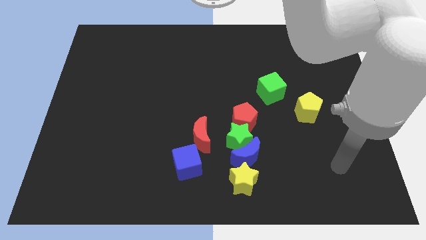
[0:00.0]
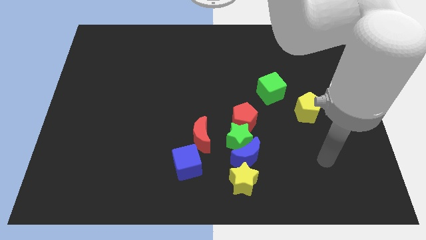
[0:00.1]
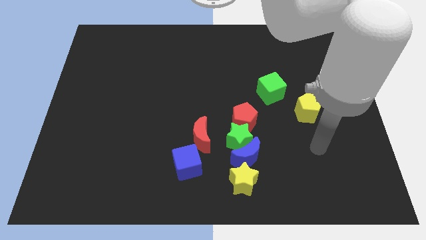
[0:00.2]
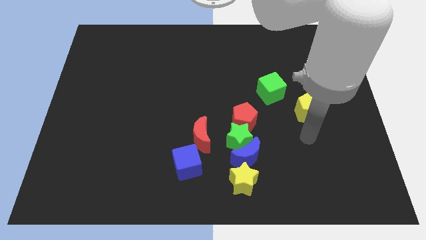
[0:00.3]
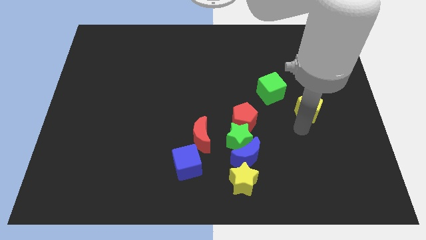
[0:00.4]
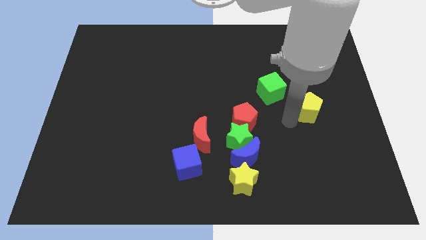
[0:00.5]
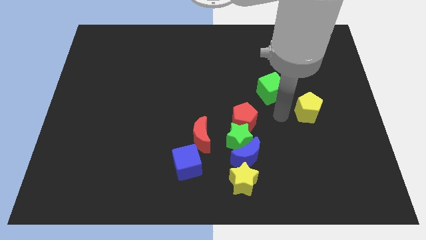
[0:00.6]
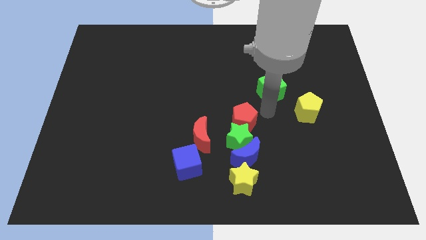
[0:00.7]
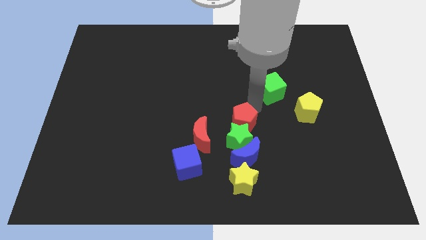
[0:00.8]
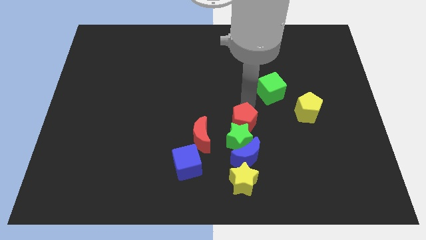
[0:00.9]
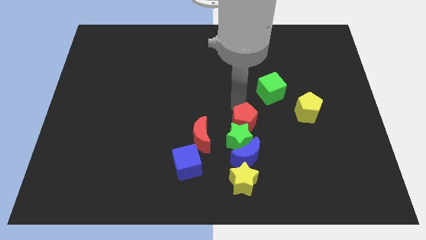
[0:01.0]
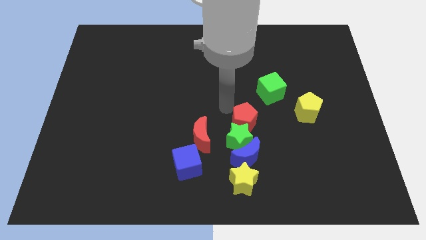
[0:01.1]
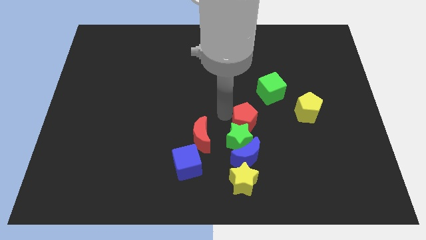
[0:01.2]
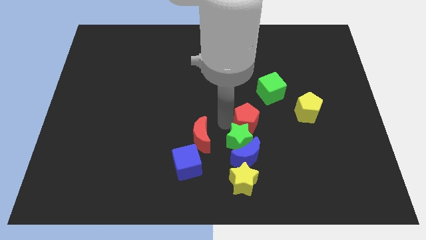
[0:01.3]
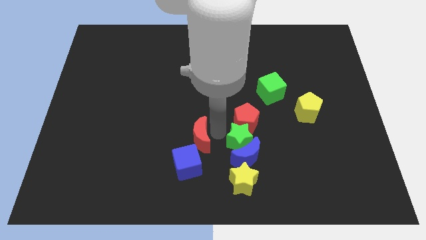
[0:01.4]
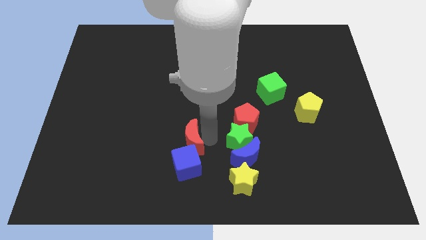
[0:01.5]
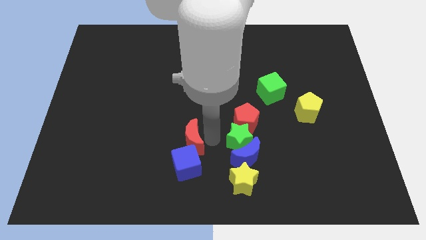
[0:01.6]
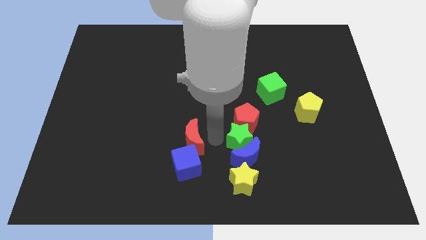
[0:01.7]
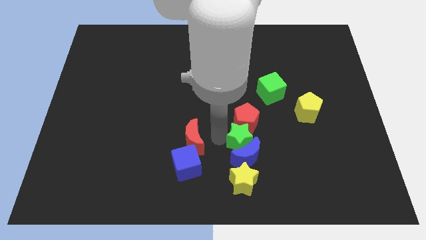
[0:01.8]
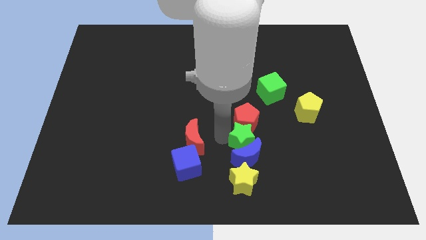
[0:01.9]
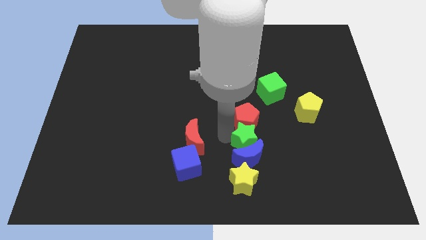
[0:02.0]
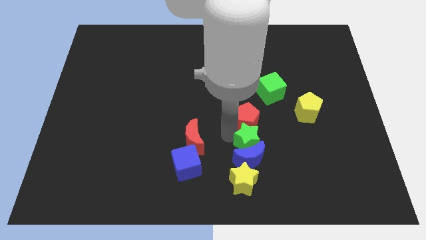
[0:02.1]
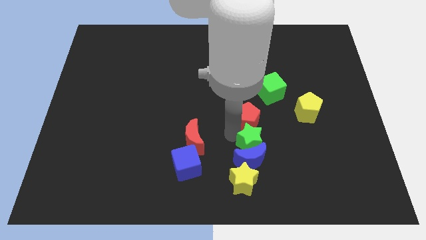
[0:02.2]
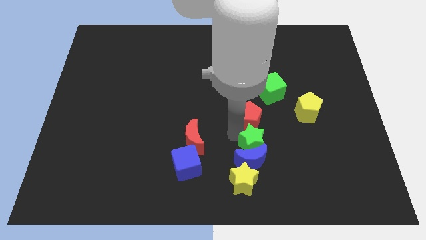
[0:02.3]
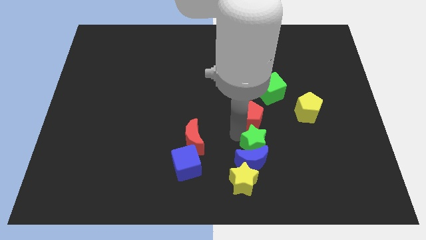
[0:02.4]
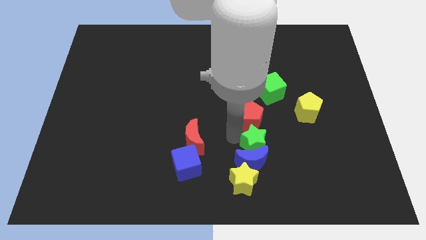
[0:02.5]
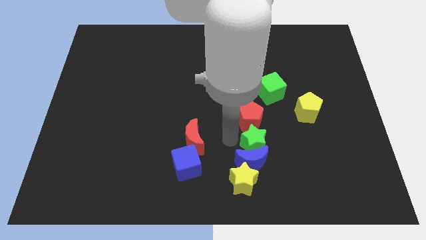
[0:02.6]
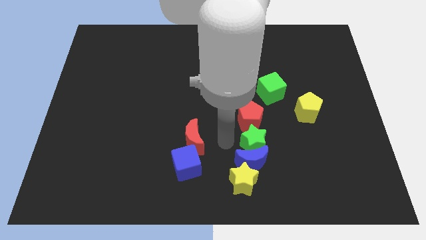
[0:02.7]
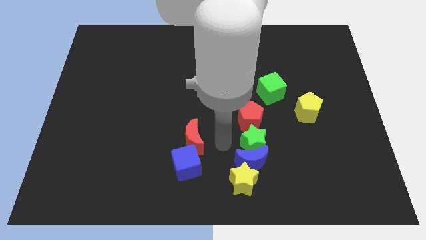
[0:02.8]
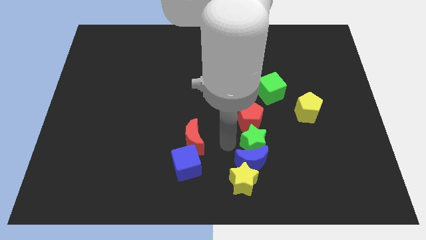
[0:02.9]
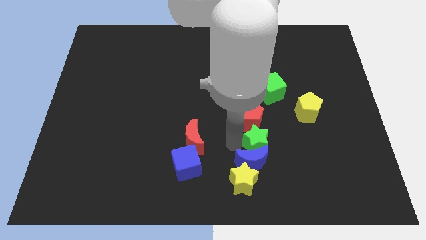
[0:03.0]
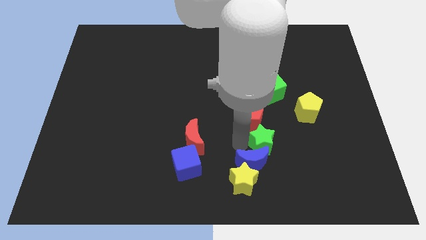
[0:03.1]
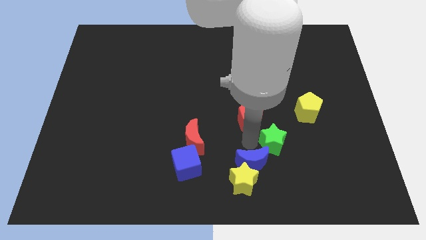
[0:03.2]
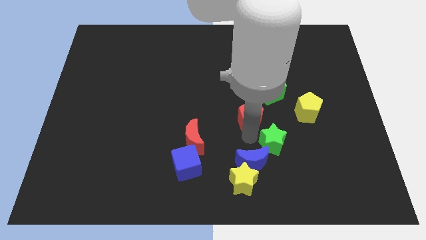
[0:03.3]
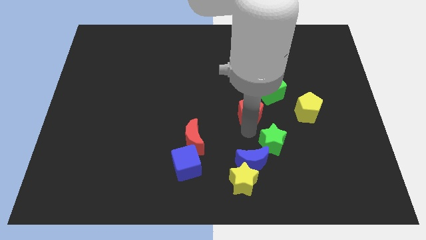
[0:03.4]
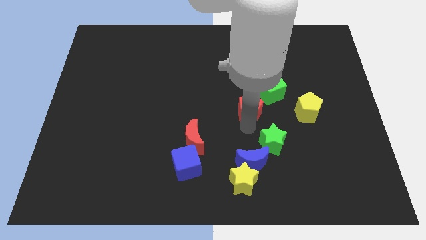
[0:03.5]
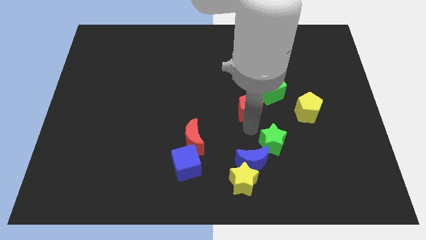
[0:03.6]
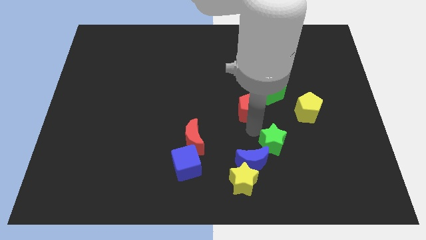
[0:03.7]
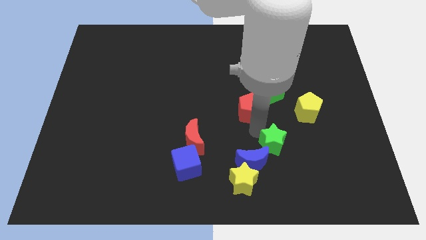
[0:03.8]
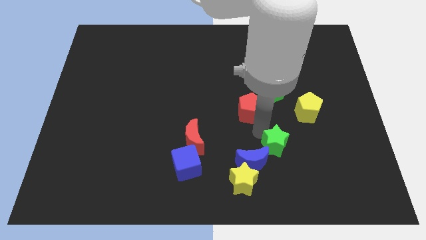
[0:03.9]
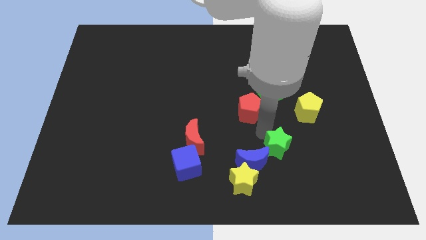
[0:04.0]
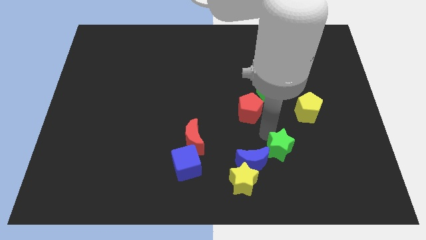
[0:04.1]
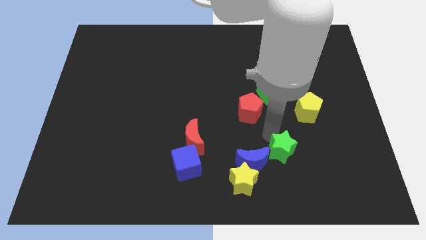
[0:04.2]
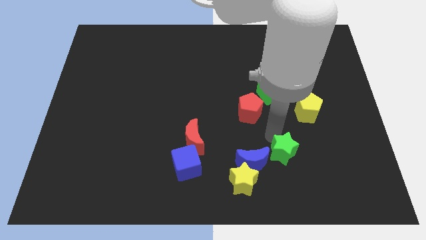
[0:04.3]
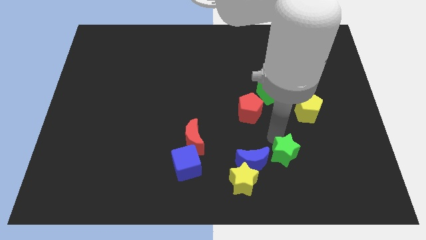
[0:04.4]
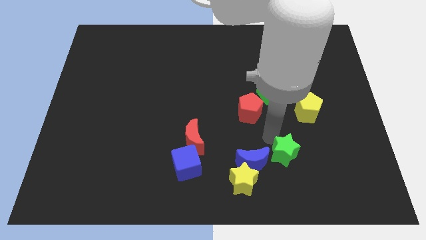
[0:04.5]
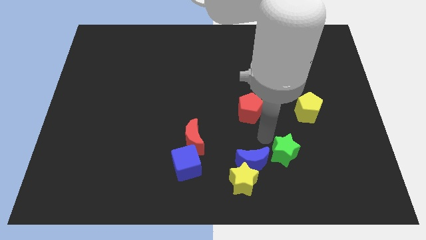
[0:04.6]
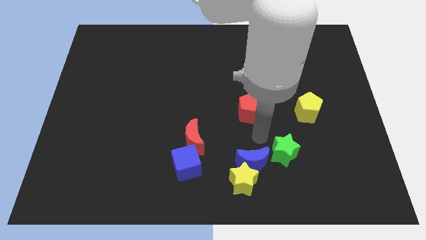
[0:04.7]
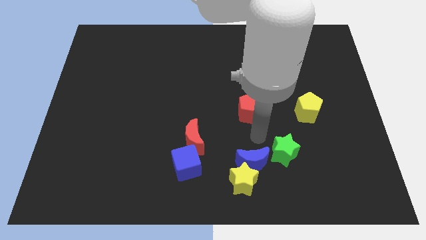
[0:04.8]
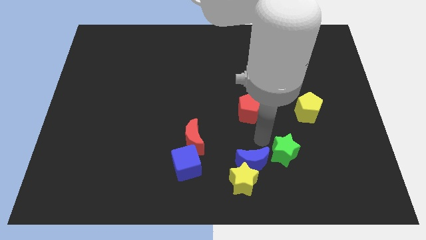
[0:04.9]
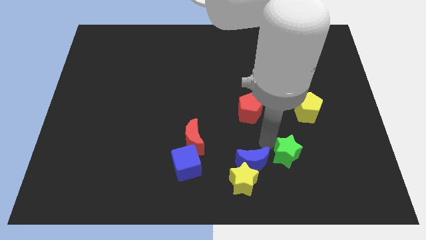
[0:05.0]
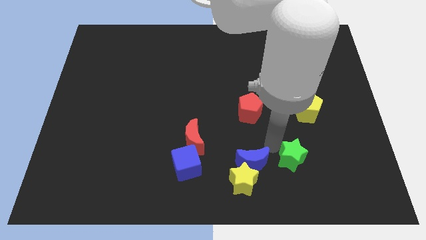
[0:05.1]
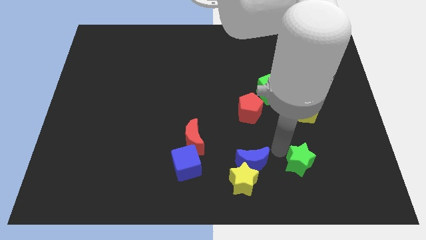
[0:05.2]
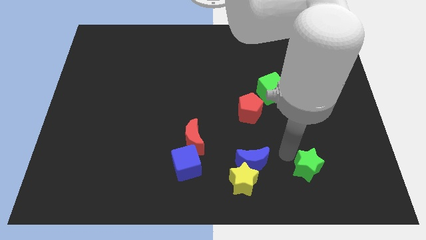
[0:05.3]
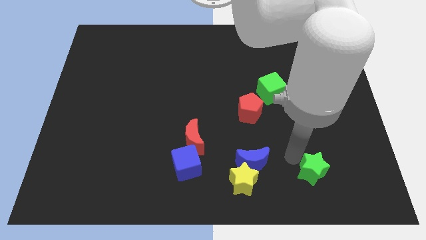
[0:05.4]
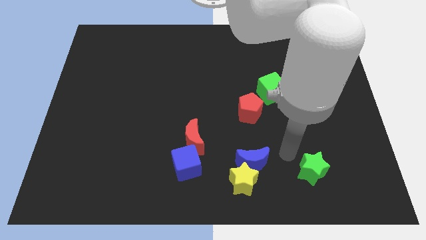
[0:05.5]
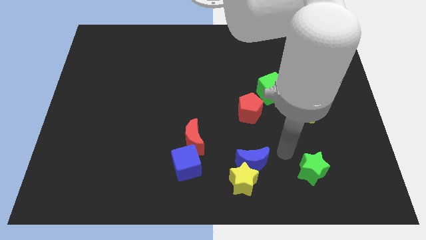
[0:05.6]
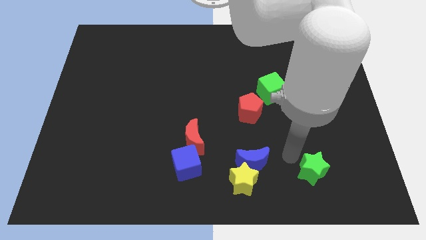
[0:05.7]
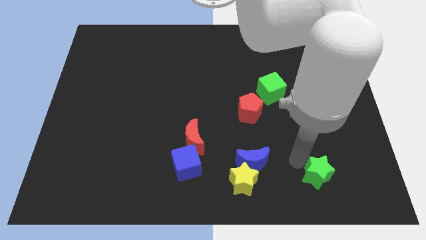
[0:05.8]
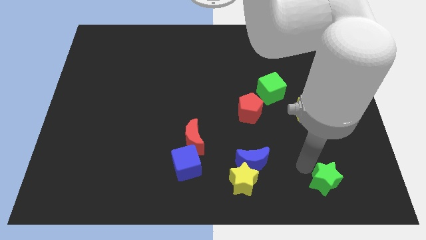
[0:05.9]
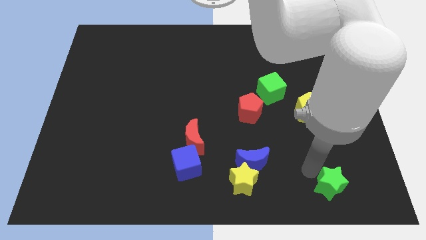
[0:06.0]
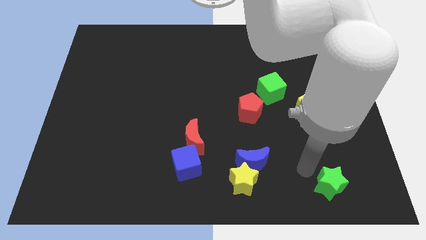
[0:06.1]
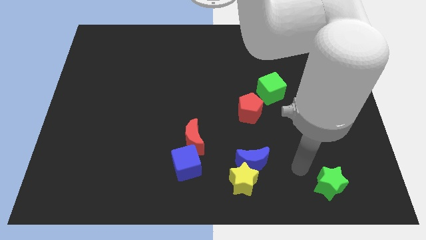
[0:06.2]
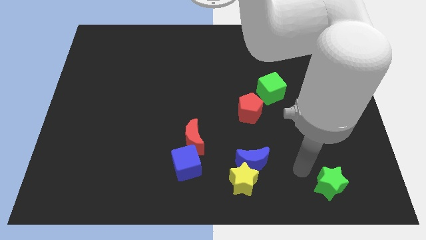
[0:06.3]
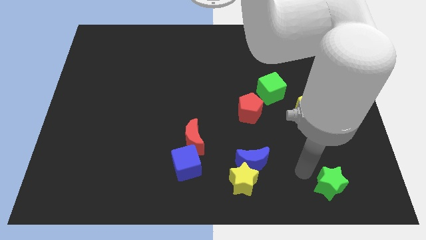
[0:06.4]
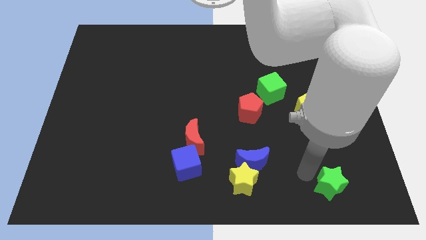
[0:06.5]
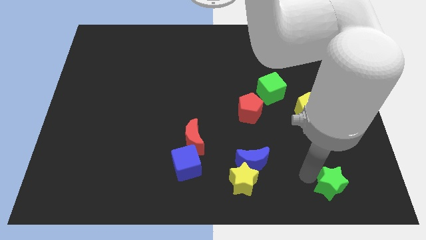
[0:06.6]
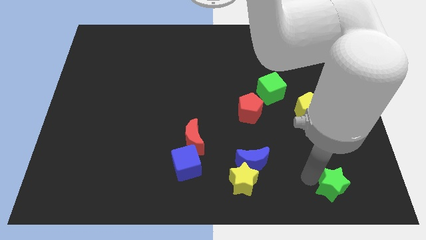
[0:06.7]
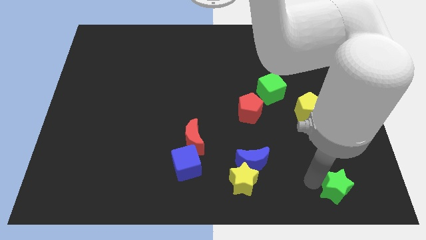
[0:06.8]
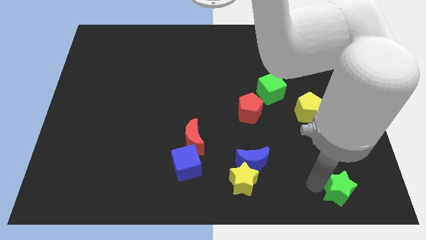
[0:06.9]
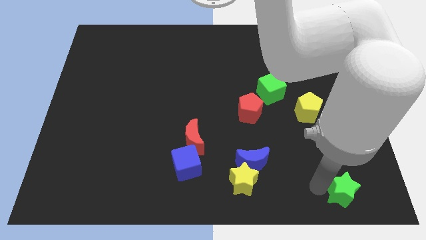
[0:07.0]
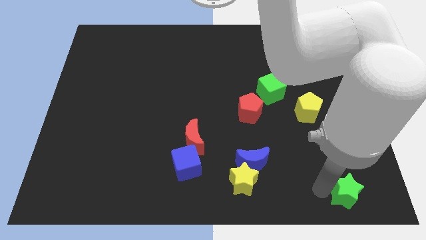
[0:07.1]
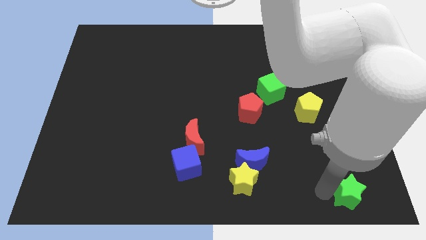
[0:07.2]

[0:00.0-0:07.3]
push the green star to the bottom right corner
